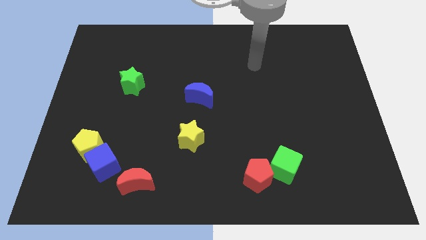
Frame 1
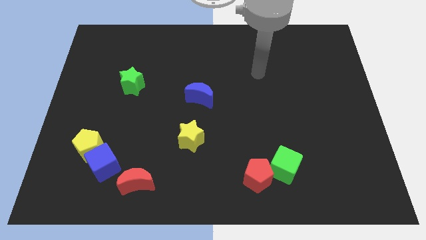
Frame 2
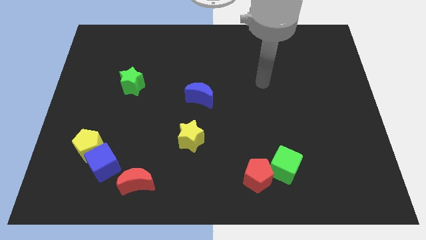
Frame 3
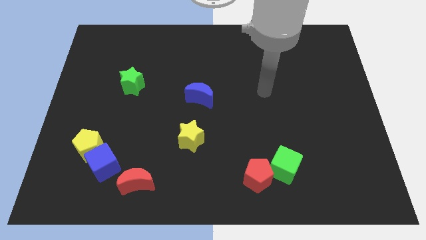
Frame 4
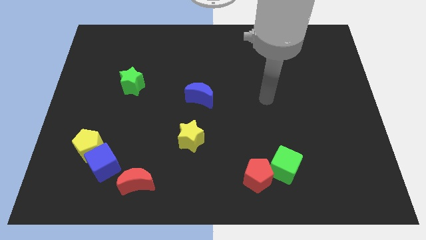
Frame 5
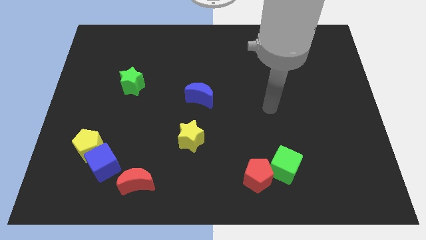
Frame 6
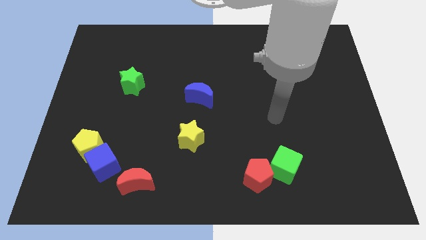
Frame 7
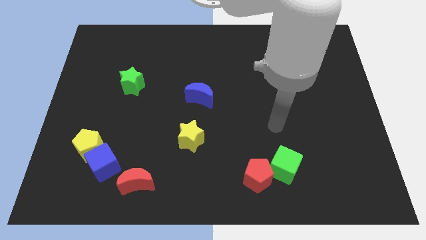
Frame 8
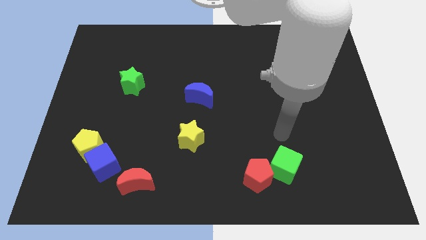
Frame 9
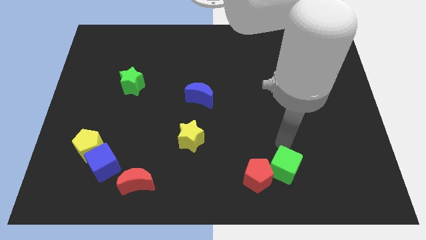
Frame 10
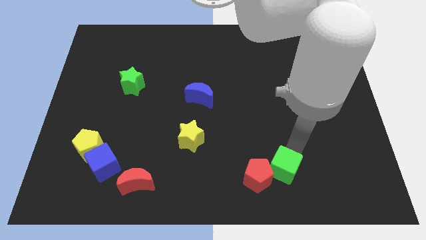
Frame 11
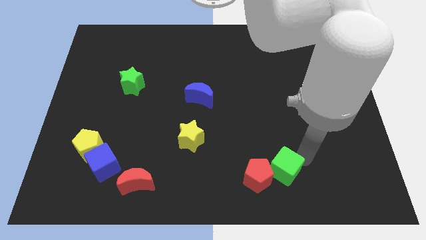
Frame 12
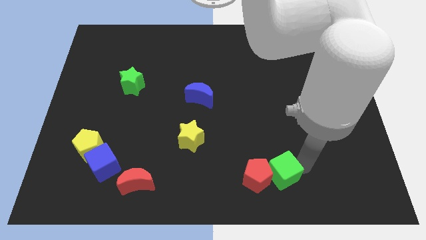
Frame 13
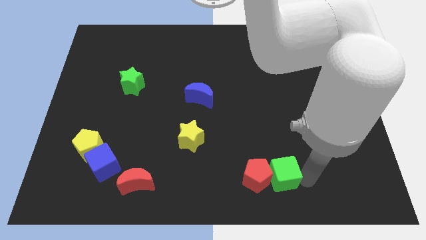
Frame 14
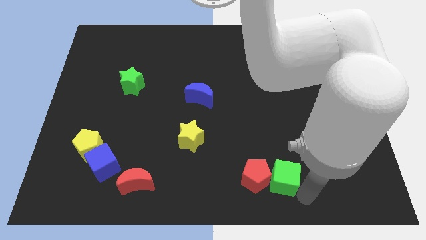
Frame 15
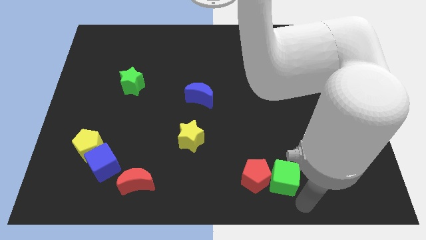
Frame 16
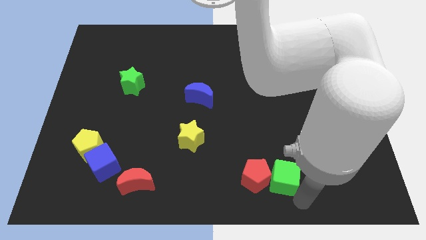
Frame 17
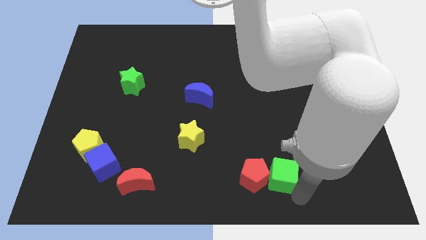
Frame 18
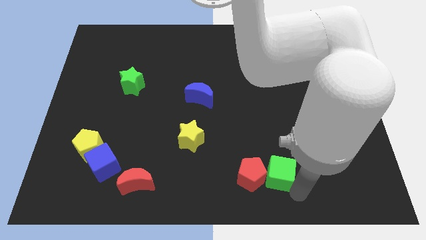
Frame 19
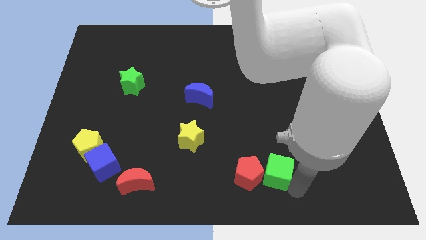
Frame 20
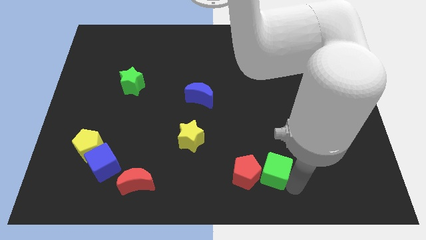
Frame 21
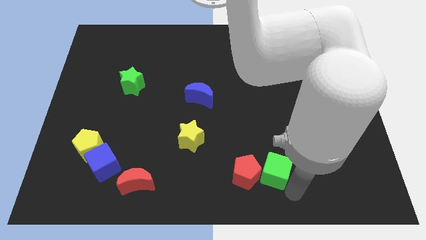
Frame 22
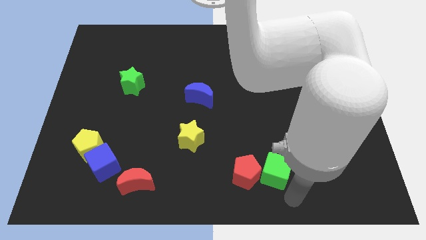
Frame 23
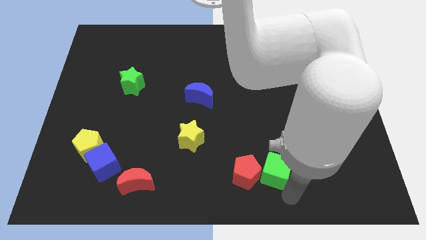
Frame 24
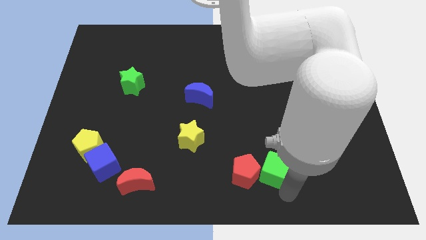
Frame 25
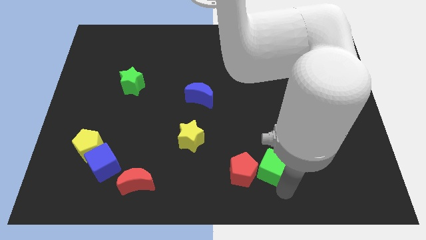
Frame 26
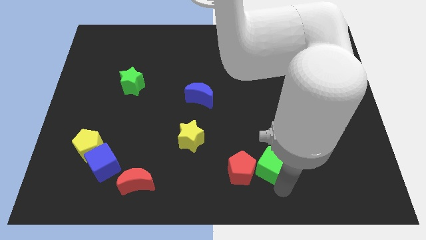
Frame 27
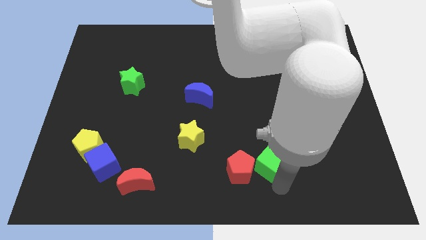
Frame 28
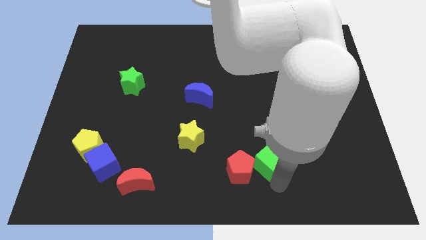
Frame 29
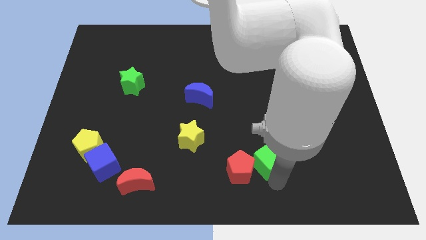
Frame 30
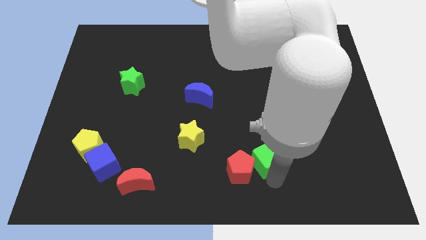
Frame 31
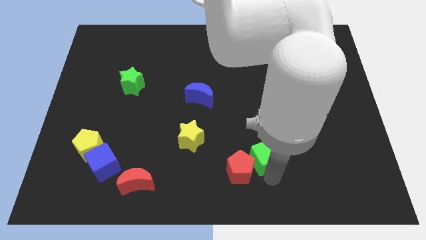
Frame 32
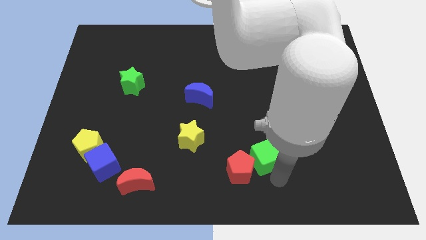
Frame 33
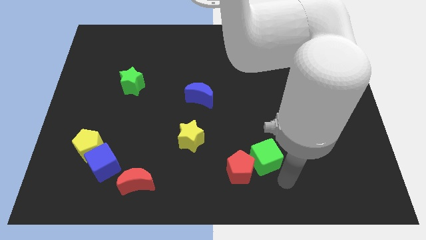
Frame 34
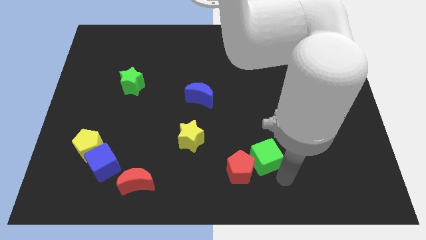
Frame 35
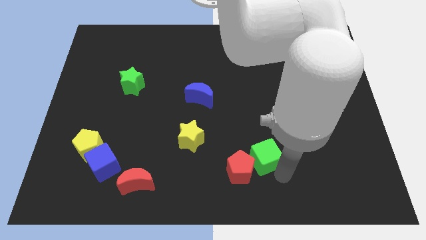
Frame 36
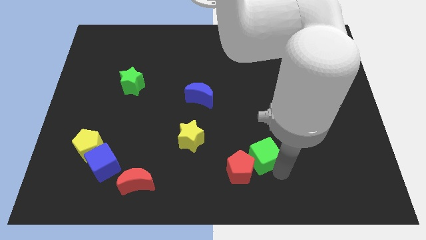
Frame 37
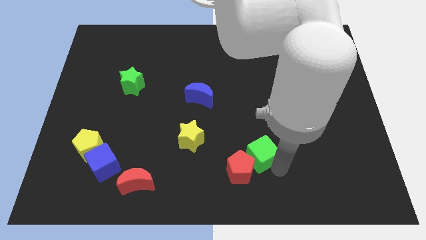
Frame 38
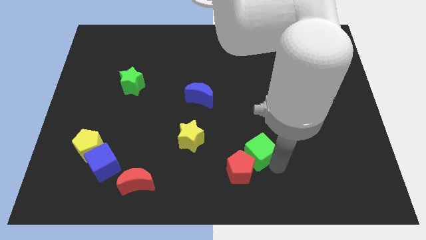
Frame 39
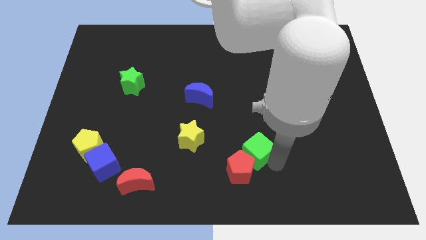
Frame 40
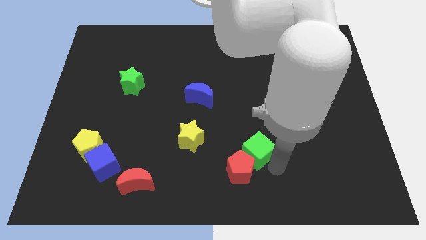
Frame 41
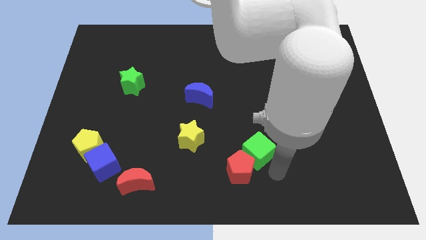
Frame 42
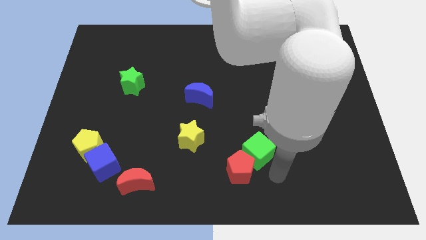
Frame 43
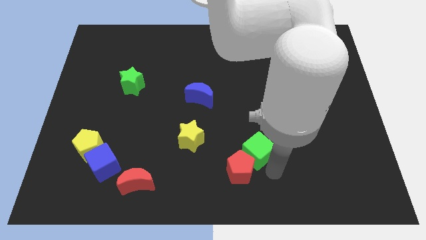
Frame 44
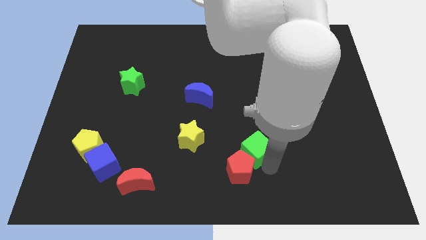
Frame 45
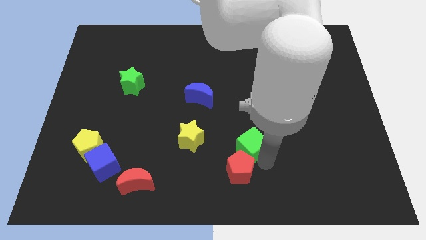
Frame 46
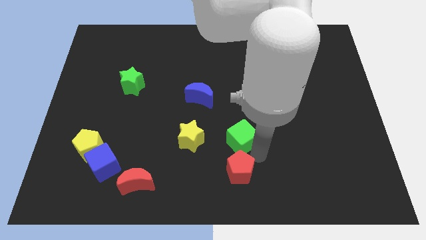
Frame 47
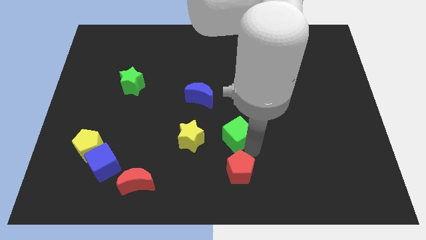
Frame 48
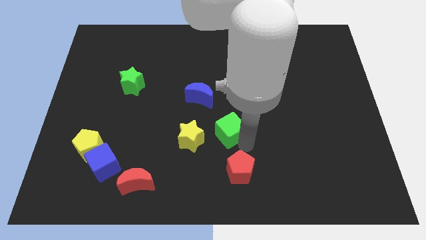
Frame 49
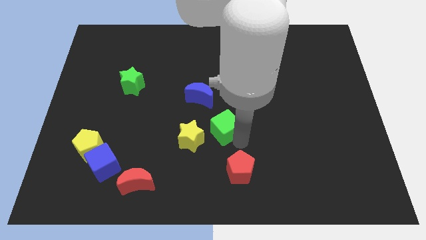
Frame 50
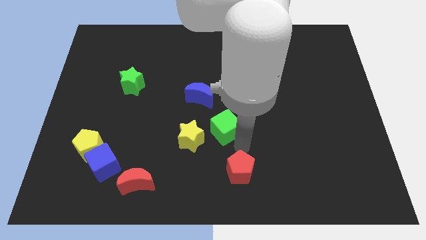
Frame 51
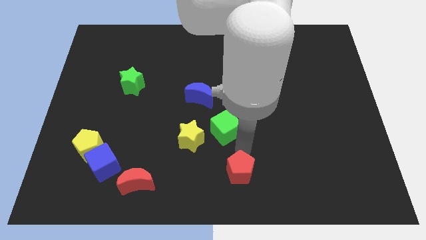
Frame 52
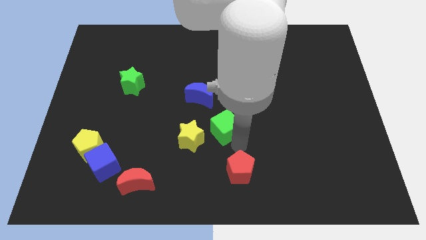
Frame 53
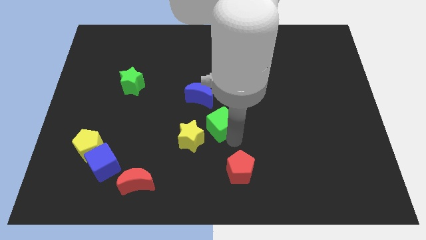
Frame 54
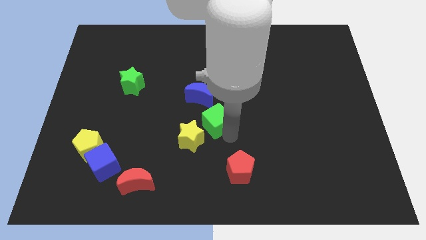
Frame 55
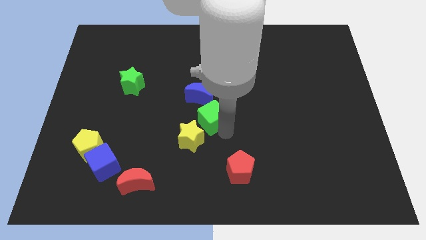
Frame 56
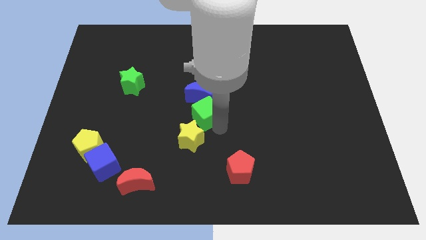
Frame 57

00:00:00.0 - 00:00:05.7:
slide the green cube close to the blue moon

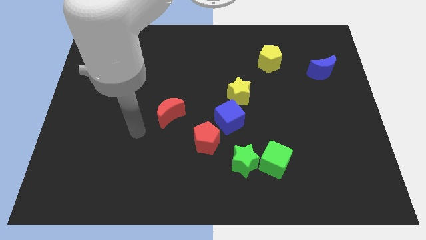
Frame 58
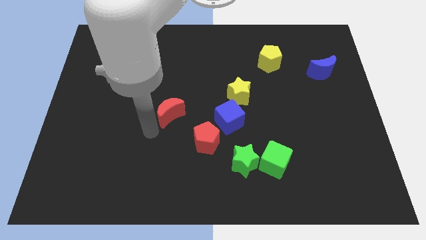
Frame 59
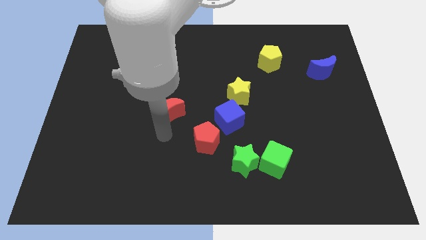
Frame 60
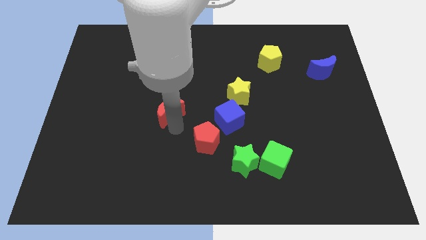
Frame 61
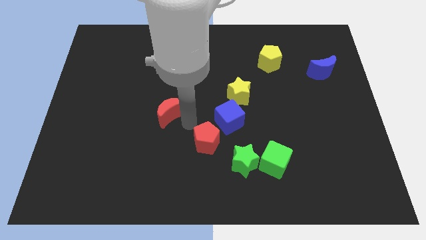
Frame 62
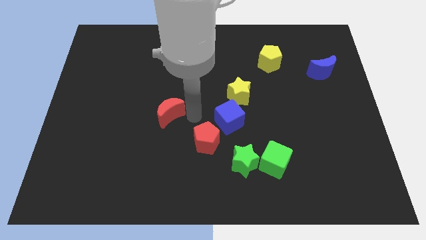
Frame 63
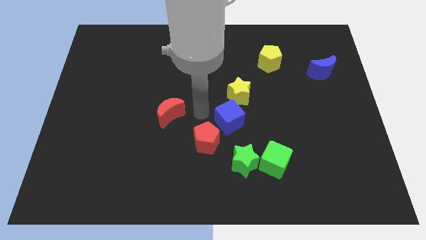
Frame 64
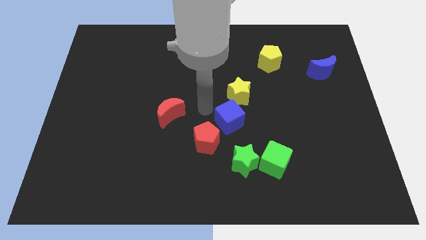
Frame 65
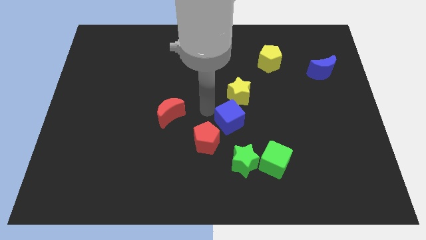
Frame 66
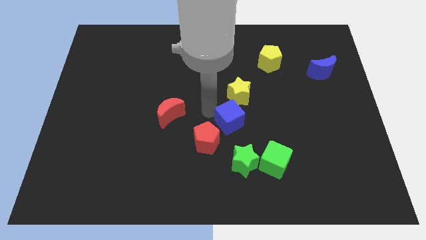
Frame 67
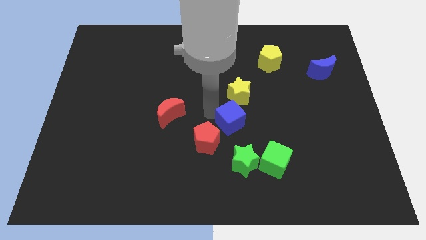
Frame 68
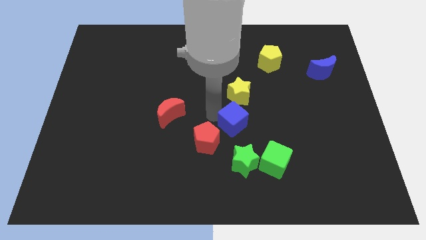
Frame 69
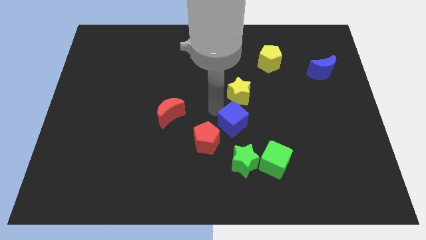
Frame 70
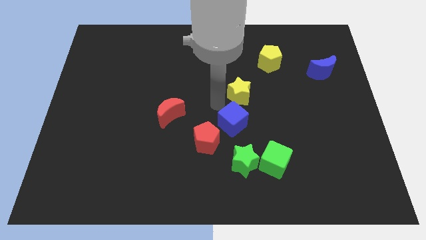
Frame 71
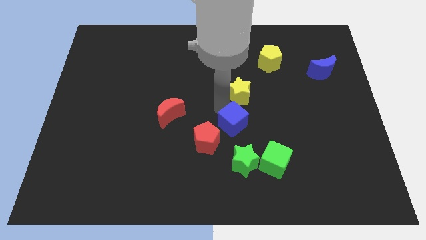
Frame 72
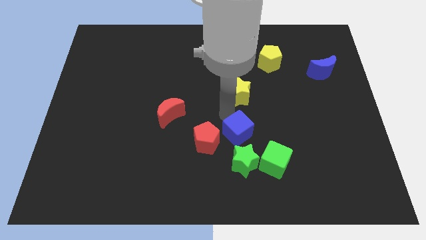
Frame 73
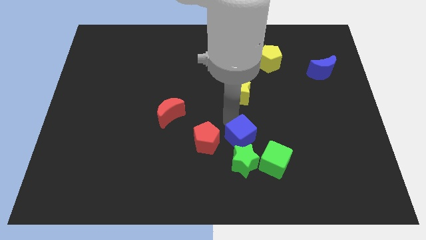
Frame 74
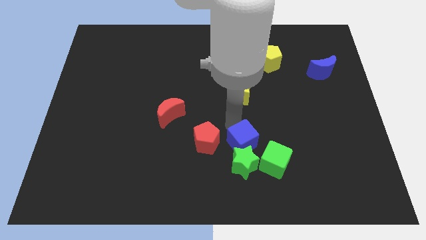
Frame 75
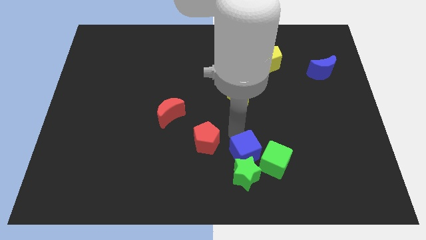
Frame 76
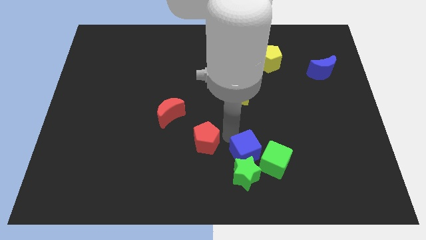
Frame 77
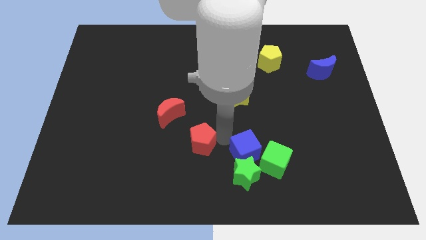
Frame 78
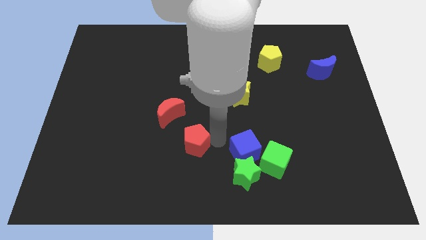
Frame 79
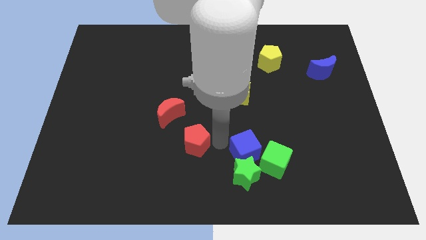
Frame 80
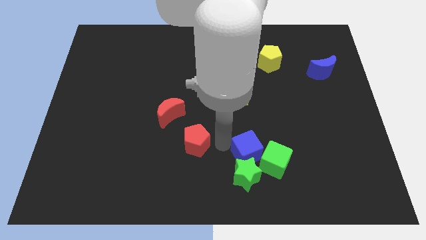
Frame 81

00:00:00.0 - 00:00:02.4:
put the blue cube close to the green cube
